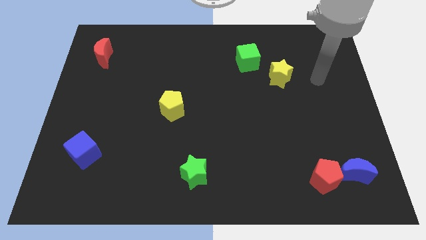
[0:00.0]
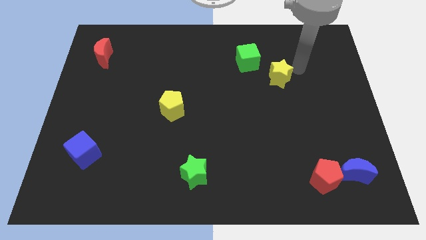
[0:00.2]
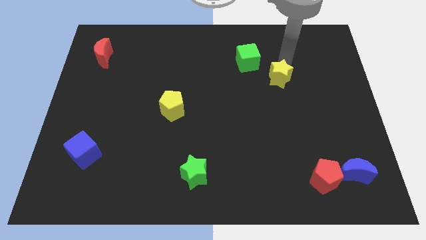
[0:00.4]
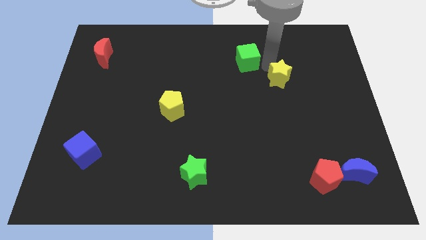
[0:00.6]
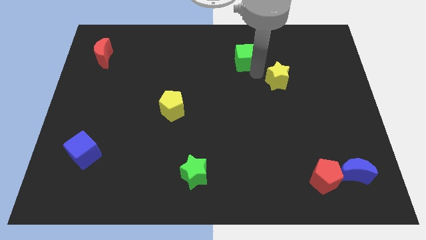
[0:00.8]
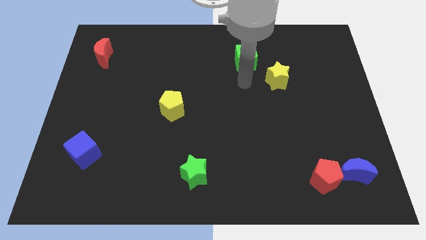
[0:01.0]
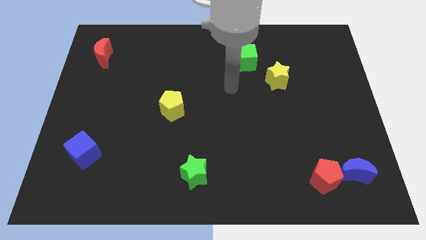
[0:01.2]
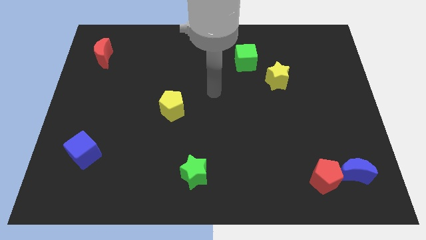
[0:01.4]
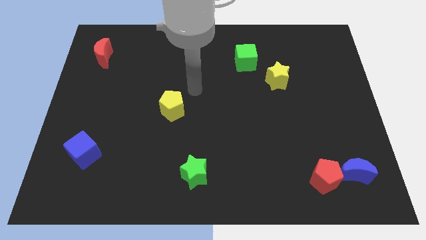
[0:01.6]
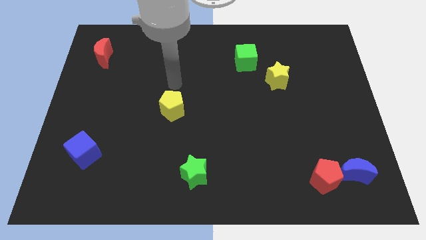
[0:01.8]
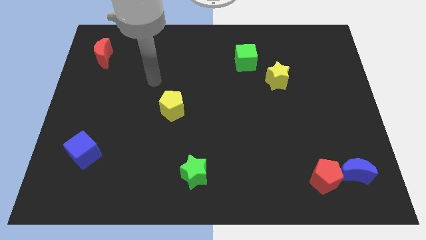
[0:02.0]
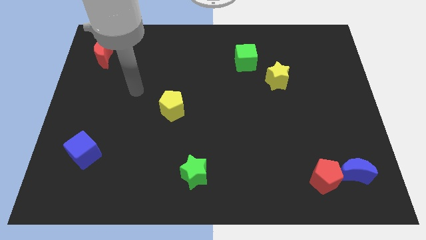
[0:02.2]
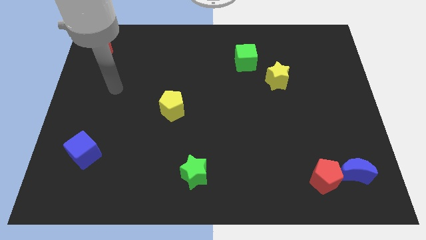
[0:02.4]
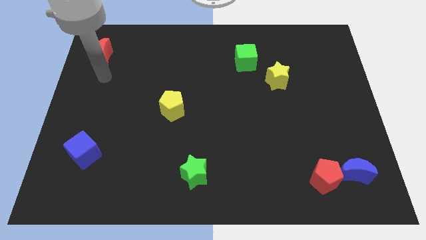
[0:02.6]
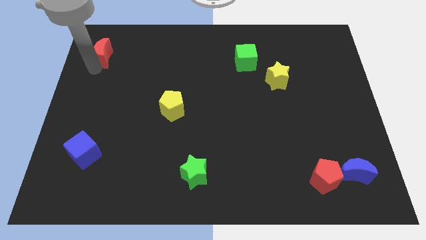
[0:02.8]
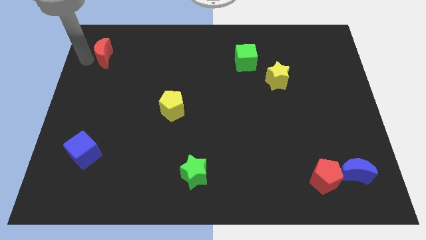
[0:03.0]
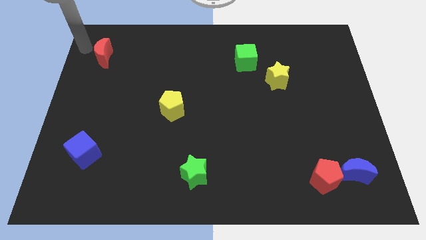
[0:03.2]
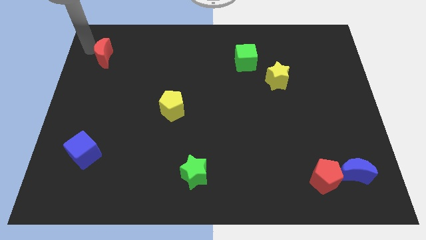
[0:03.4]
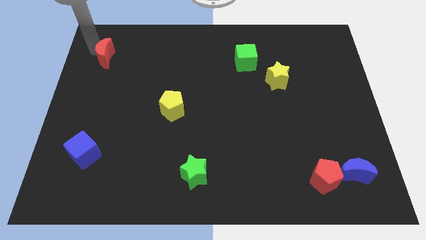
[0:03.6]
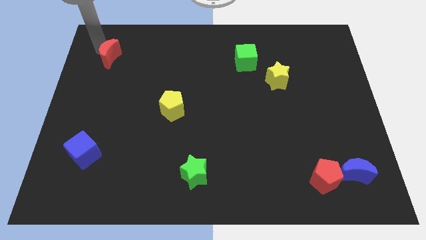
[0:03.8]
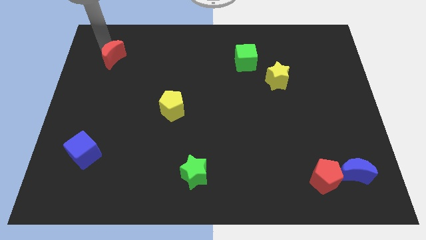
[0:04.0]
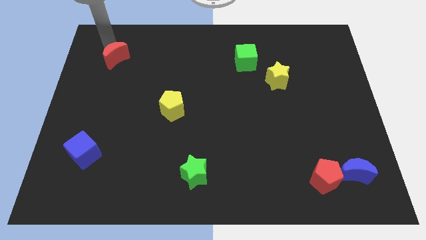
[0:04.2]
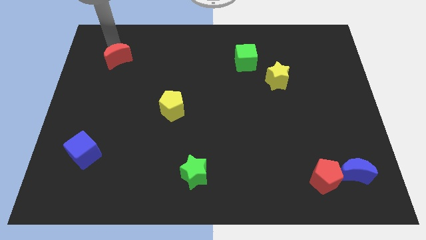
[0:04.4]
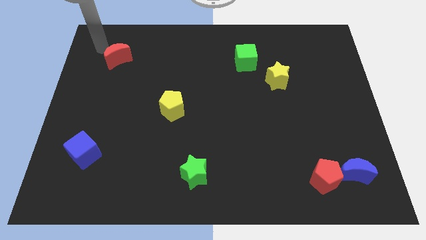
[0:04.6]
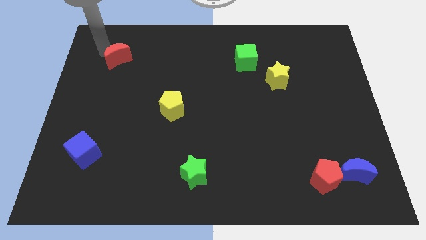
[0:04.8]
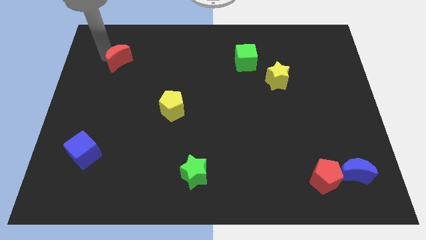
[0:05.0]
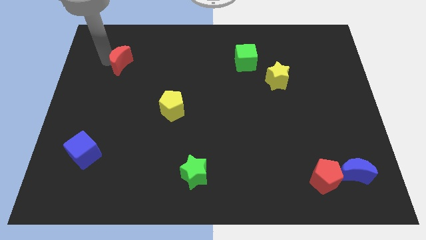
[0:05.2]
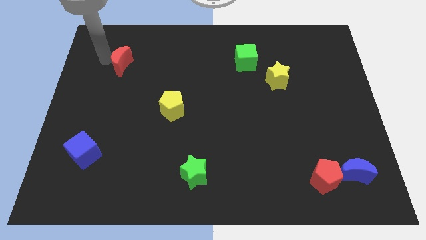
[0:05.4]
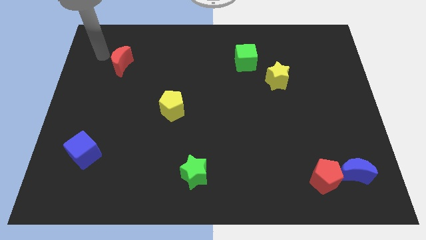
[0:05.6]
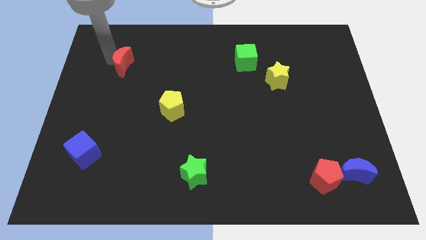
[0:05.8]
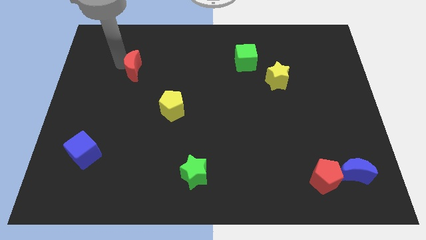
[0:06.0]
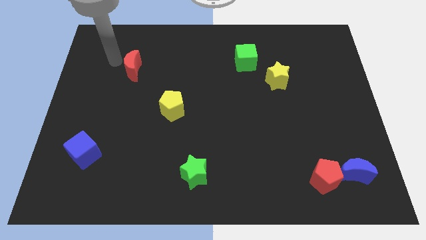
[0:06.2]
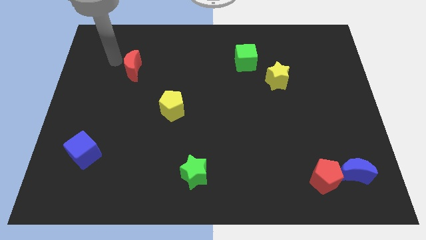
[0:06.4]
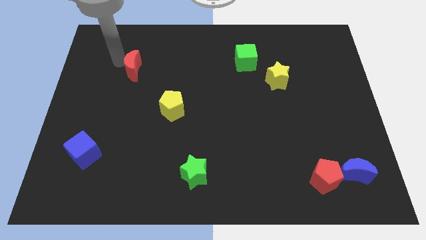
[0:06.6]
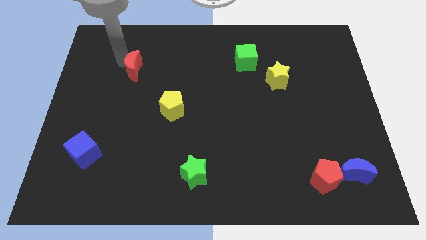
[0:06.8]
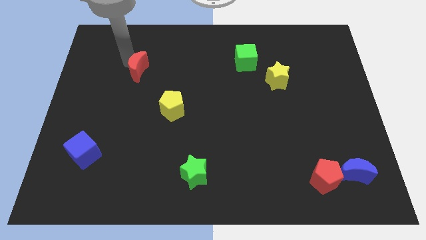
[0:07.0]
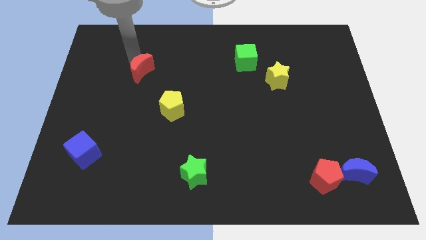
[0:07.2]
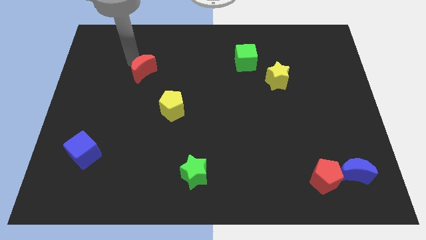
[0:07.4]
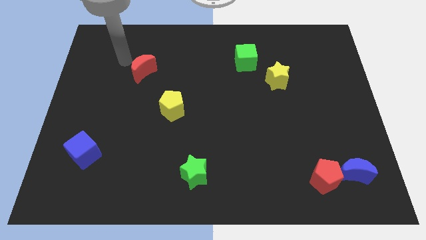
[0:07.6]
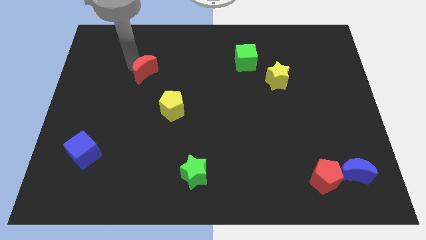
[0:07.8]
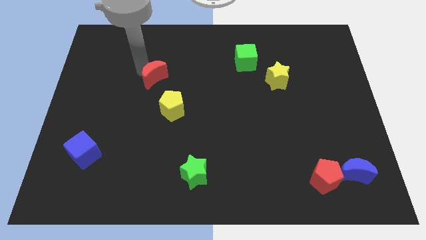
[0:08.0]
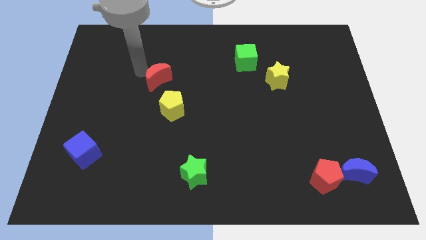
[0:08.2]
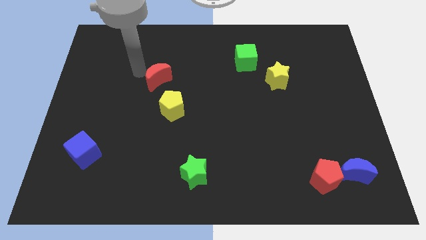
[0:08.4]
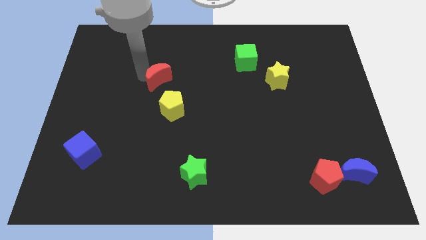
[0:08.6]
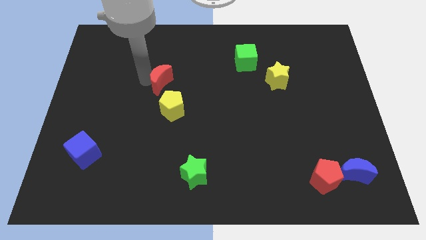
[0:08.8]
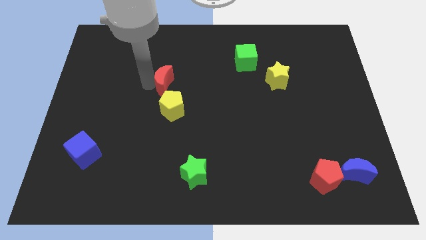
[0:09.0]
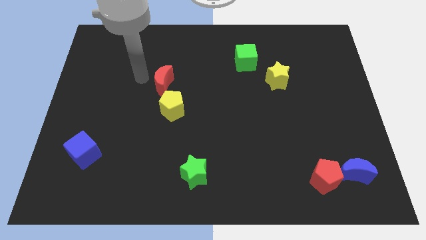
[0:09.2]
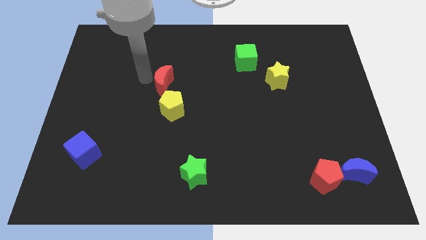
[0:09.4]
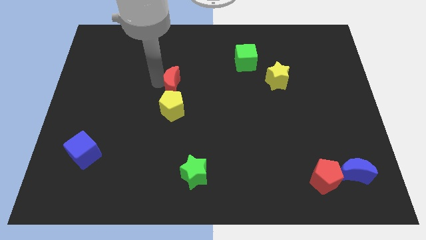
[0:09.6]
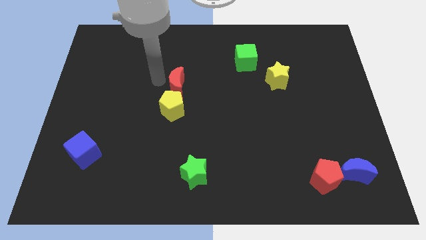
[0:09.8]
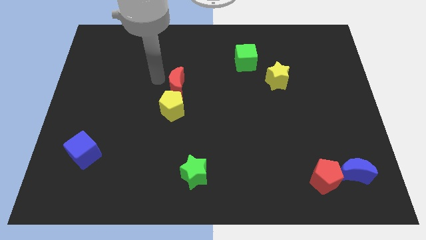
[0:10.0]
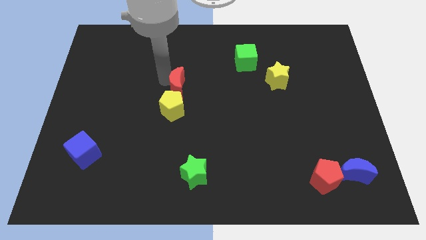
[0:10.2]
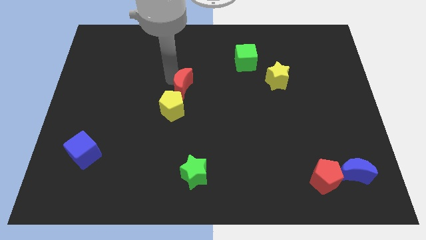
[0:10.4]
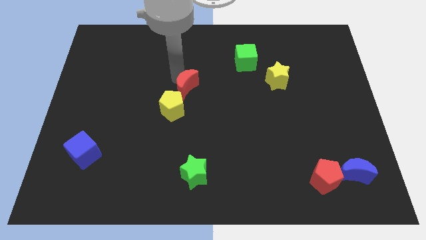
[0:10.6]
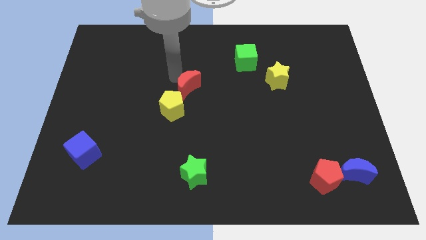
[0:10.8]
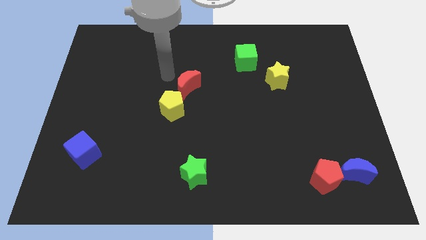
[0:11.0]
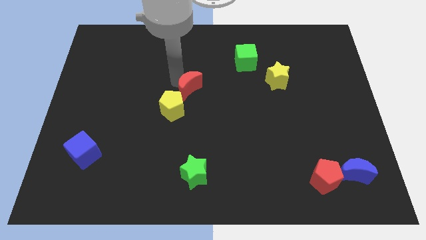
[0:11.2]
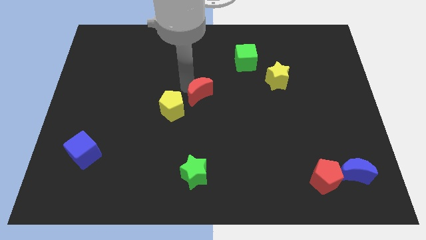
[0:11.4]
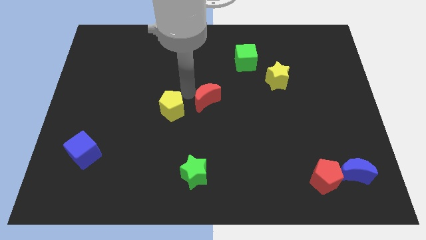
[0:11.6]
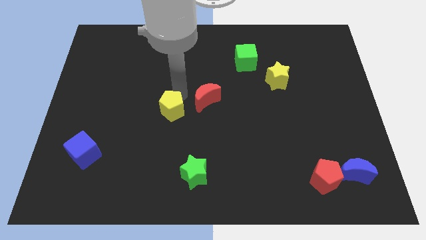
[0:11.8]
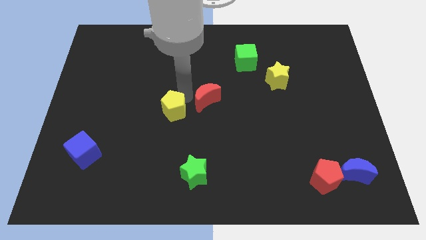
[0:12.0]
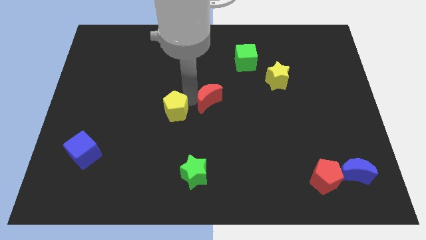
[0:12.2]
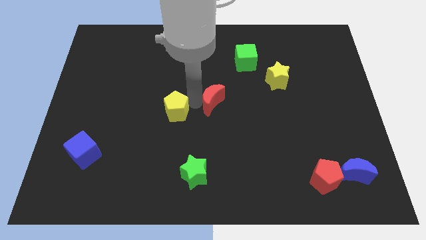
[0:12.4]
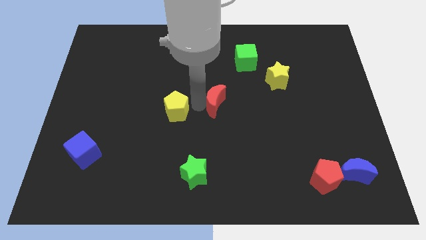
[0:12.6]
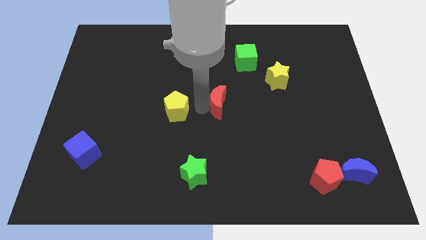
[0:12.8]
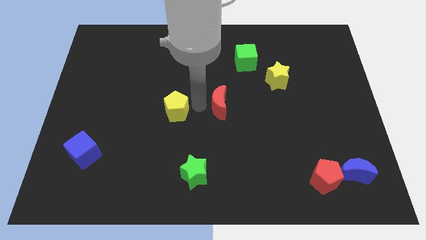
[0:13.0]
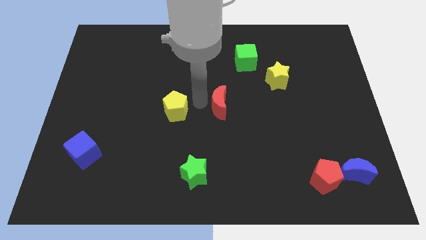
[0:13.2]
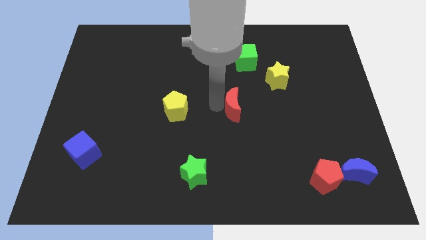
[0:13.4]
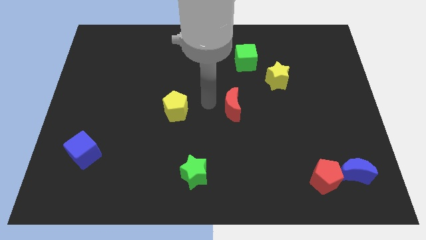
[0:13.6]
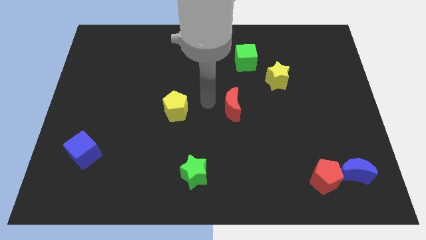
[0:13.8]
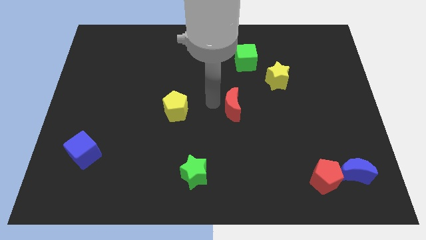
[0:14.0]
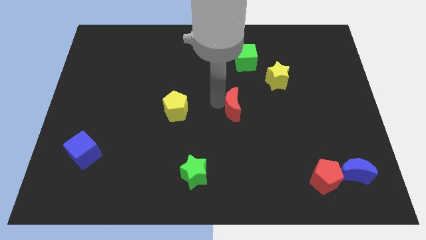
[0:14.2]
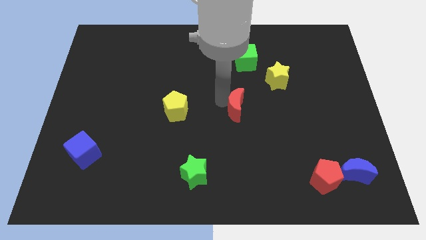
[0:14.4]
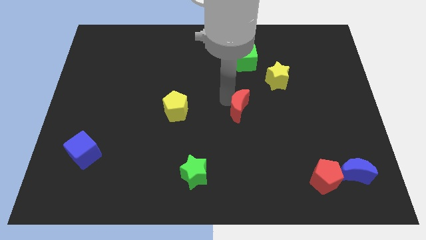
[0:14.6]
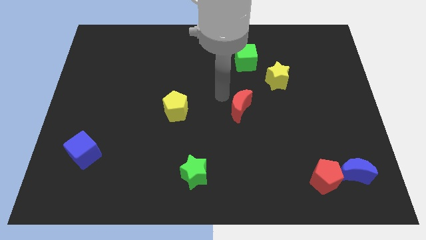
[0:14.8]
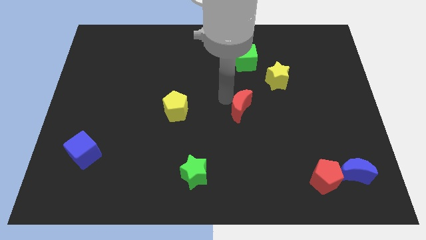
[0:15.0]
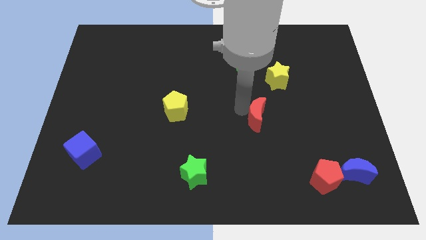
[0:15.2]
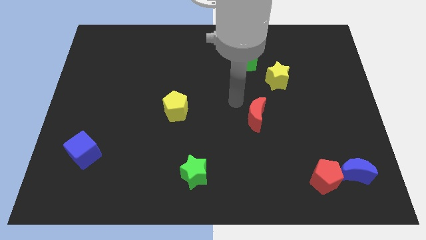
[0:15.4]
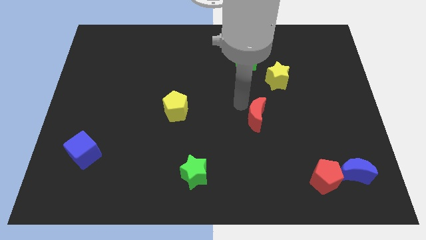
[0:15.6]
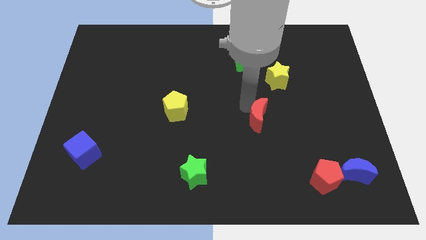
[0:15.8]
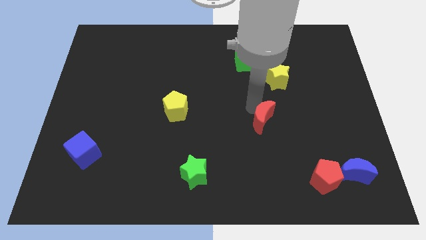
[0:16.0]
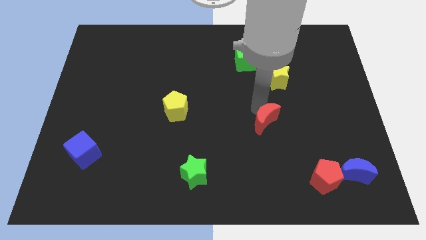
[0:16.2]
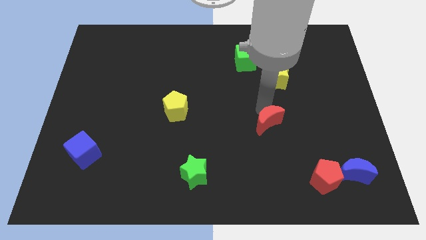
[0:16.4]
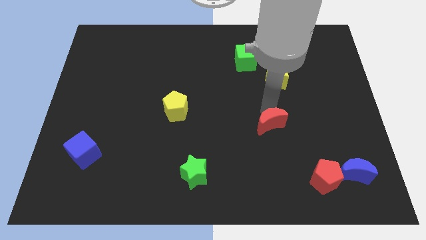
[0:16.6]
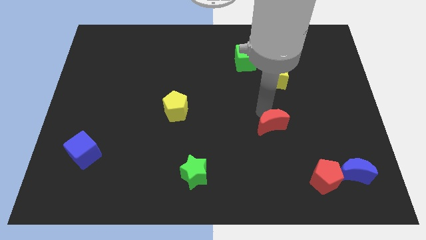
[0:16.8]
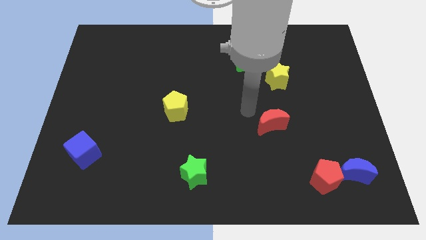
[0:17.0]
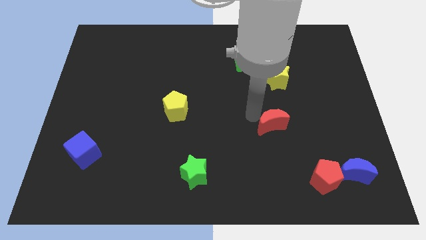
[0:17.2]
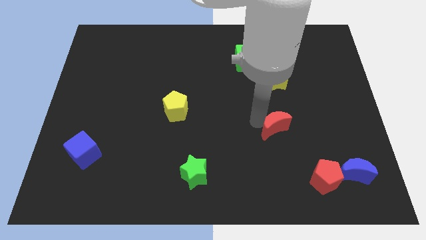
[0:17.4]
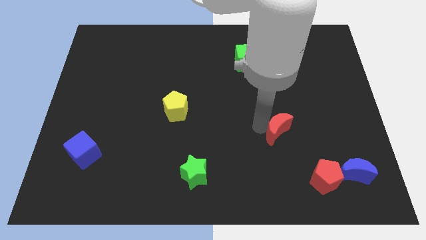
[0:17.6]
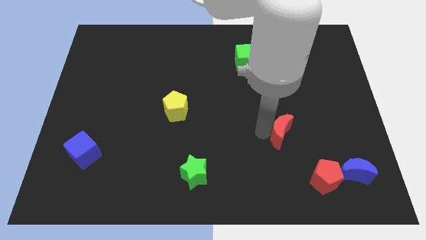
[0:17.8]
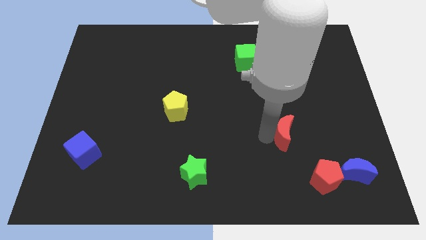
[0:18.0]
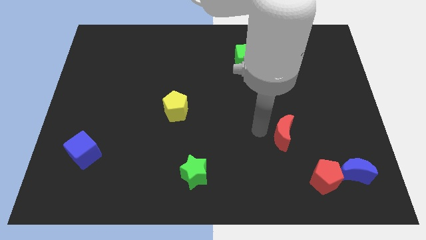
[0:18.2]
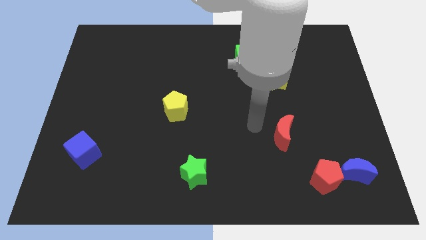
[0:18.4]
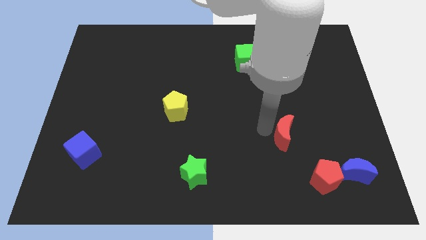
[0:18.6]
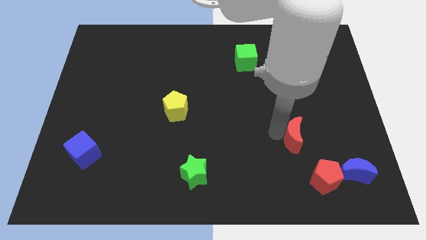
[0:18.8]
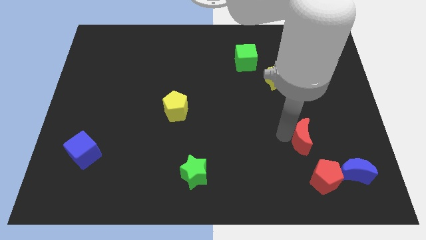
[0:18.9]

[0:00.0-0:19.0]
push the red moon to the top left side of the blue moon
